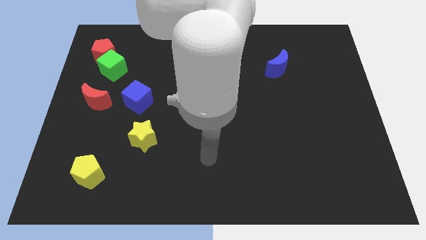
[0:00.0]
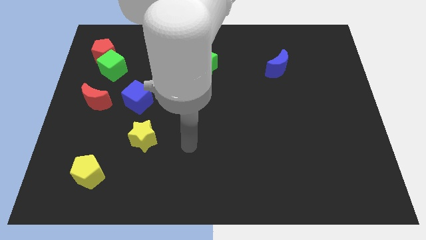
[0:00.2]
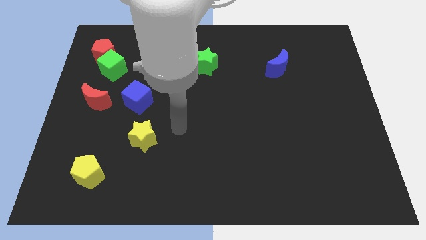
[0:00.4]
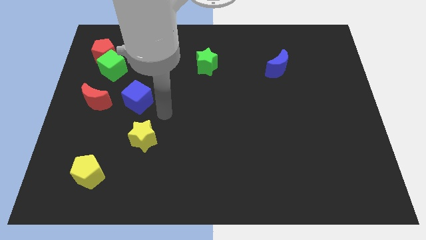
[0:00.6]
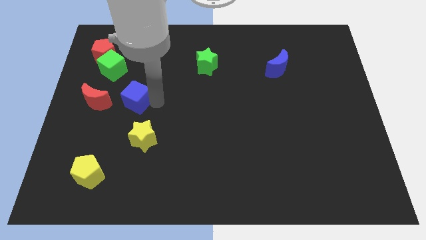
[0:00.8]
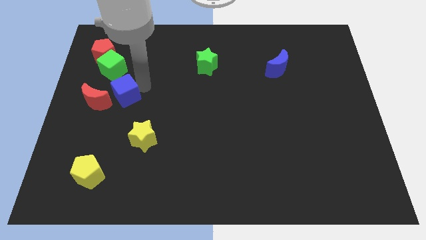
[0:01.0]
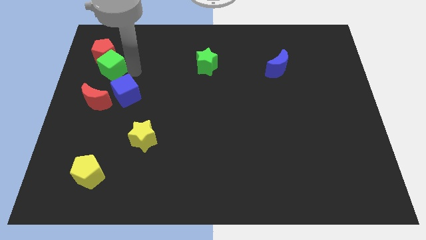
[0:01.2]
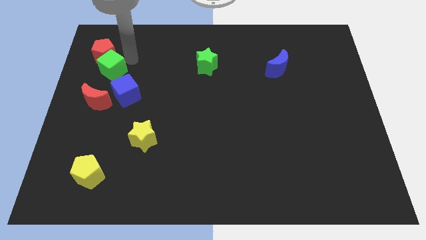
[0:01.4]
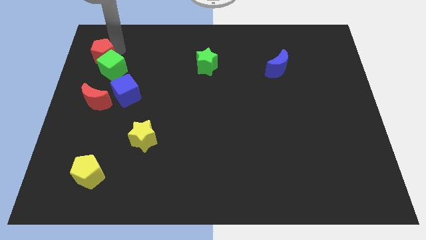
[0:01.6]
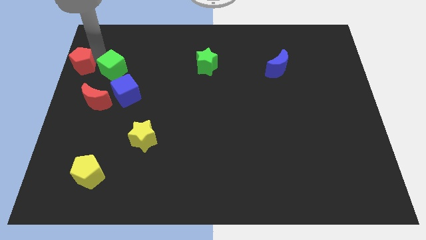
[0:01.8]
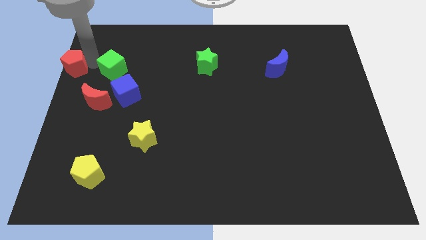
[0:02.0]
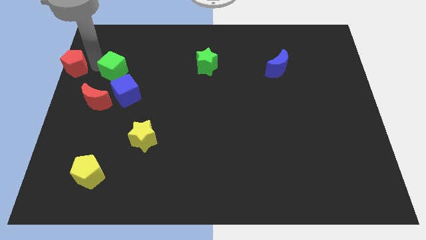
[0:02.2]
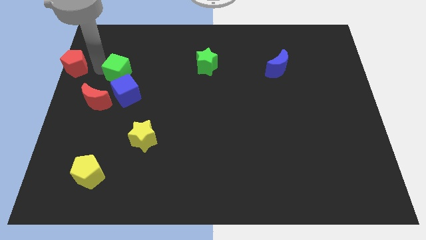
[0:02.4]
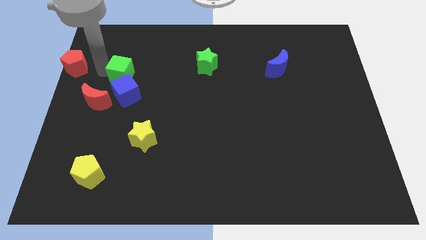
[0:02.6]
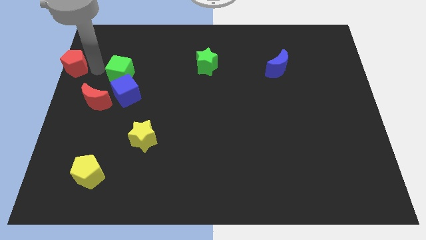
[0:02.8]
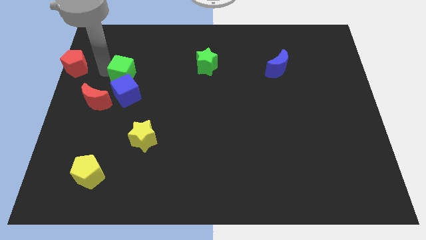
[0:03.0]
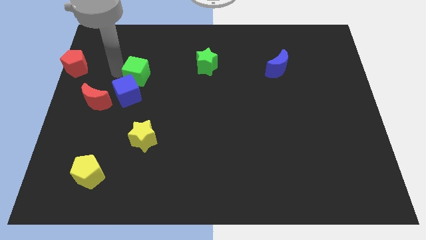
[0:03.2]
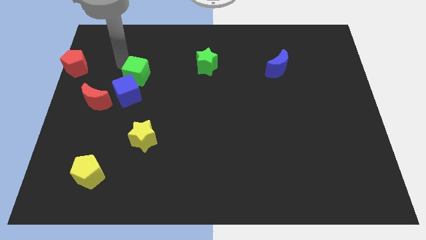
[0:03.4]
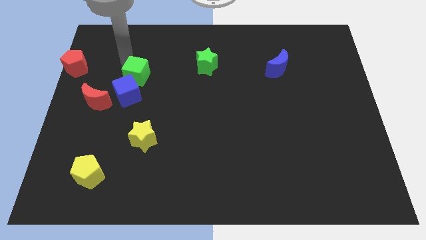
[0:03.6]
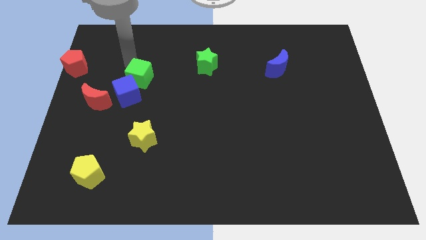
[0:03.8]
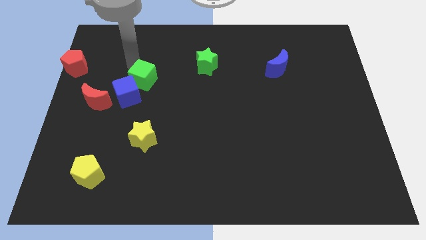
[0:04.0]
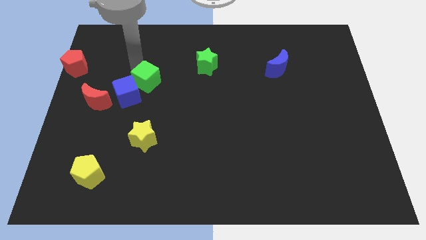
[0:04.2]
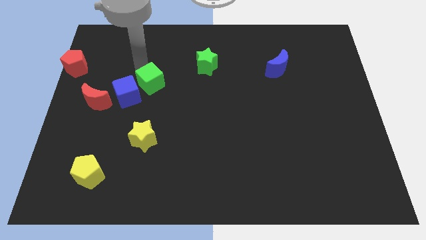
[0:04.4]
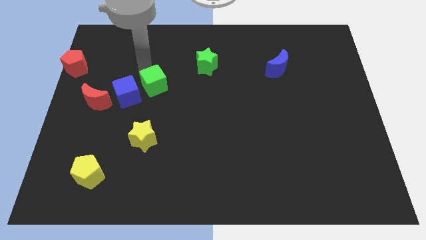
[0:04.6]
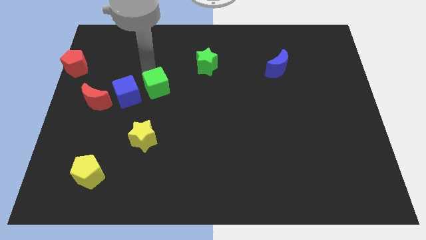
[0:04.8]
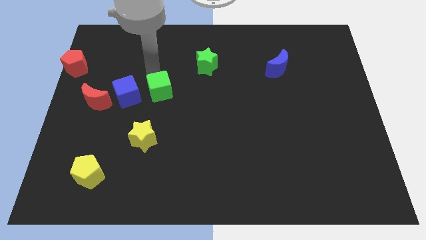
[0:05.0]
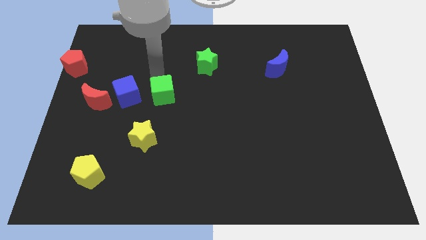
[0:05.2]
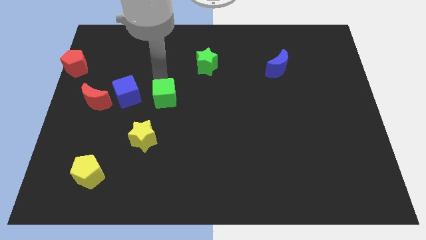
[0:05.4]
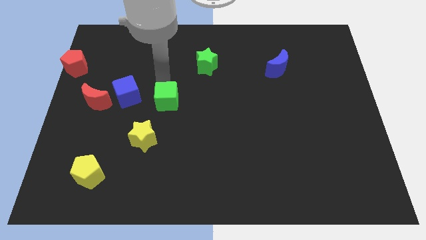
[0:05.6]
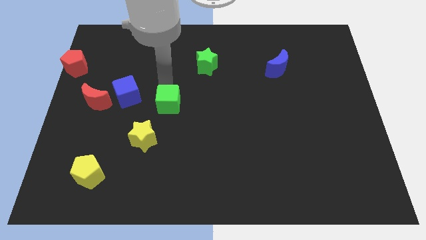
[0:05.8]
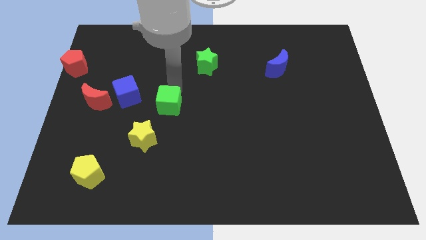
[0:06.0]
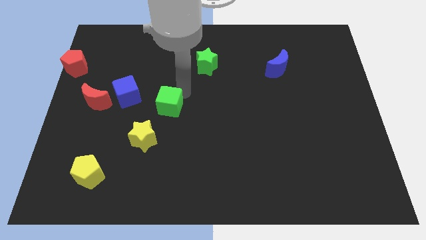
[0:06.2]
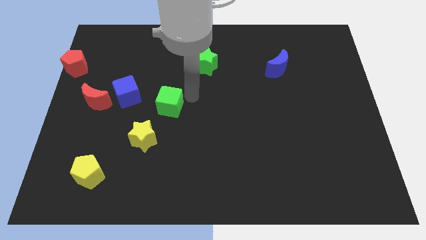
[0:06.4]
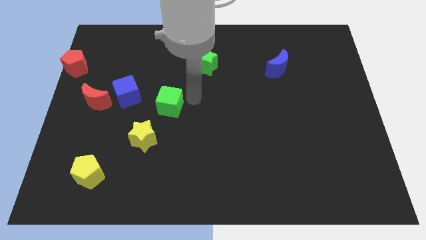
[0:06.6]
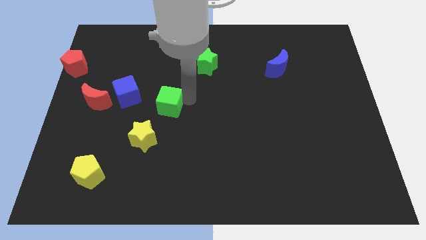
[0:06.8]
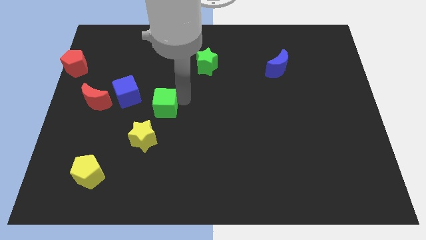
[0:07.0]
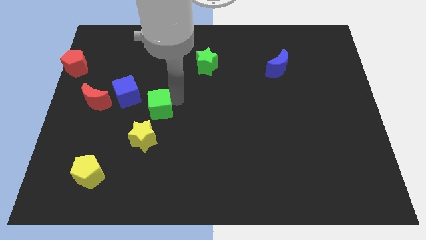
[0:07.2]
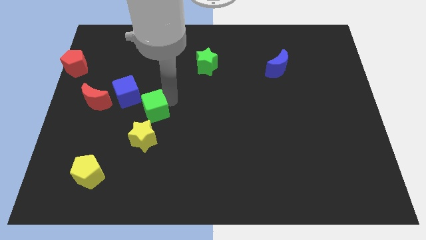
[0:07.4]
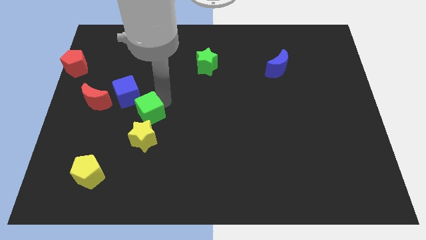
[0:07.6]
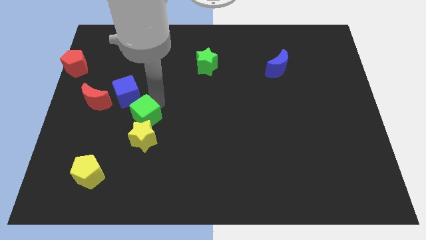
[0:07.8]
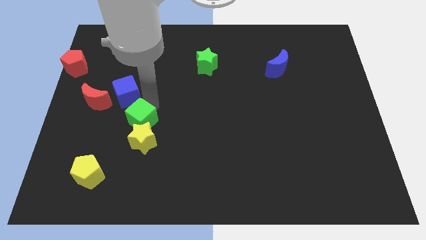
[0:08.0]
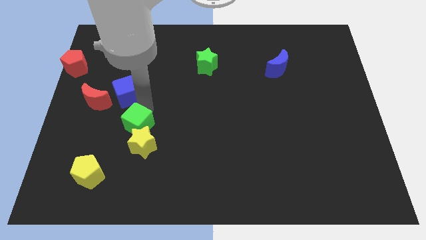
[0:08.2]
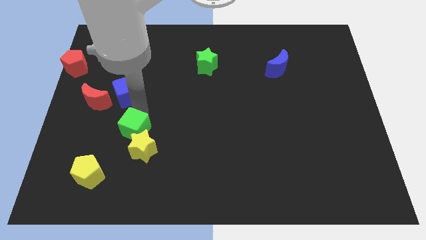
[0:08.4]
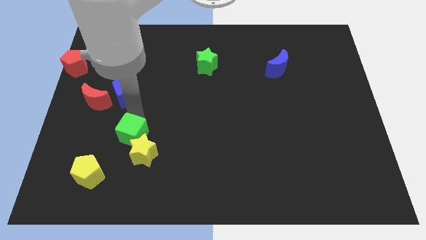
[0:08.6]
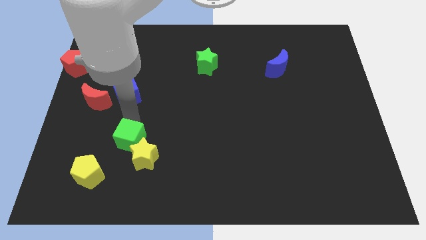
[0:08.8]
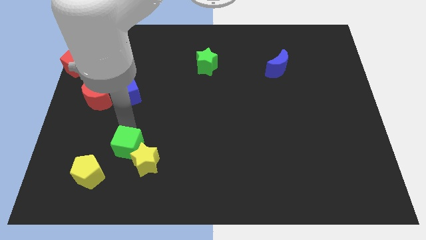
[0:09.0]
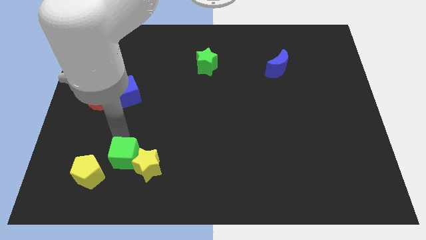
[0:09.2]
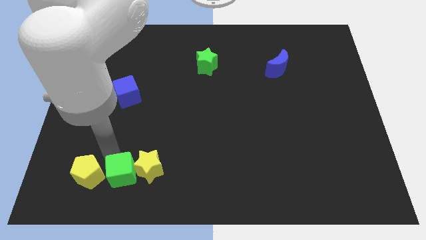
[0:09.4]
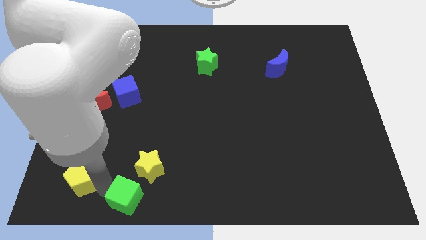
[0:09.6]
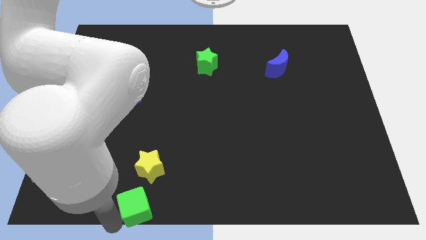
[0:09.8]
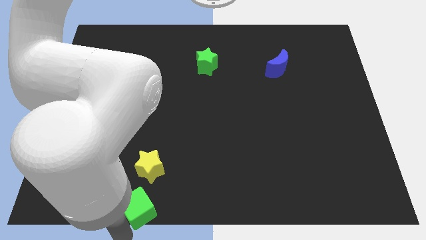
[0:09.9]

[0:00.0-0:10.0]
put the green cube to the bottom side

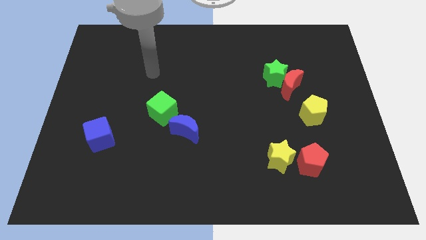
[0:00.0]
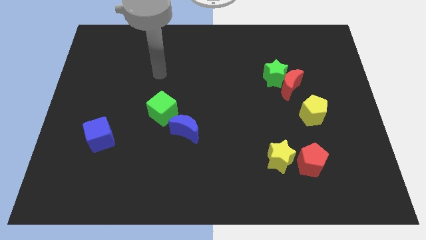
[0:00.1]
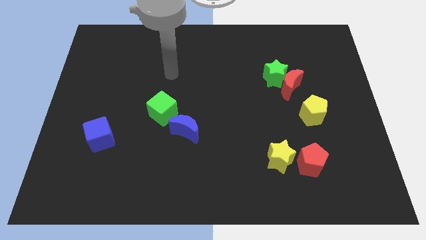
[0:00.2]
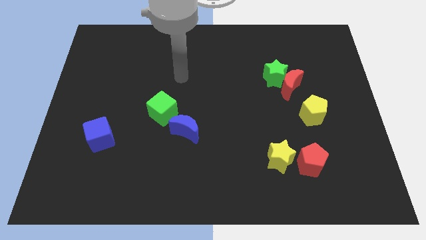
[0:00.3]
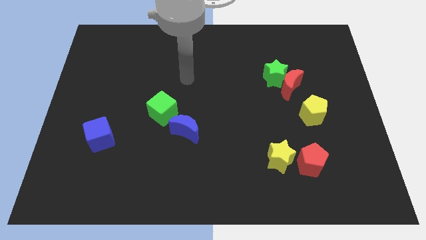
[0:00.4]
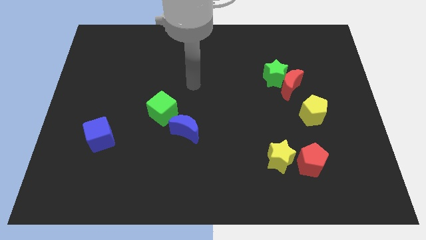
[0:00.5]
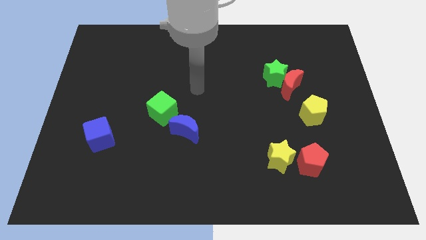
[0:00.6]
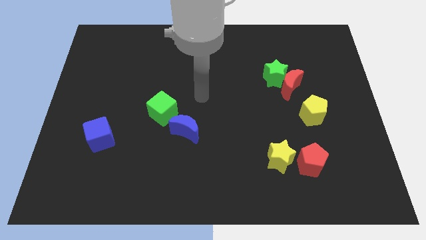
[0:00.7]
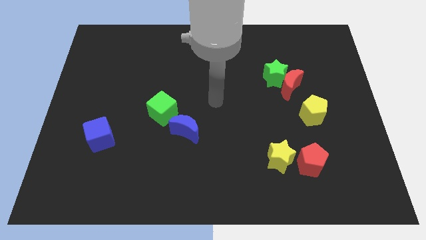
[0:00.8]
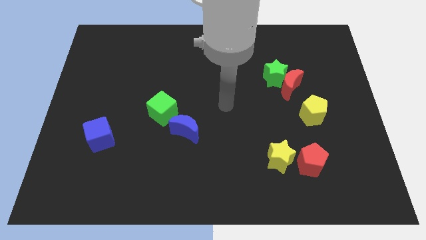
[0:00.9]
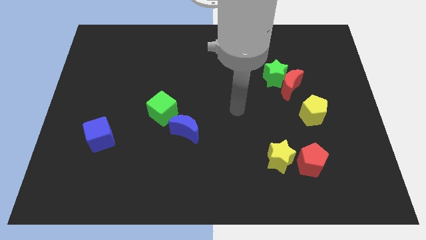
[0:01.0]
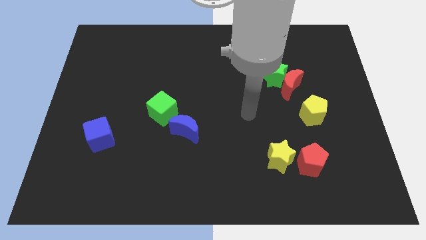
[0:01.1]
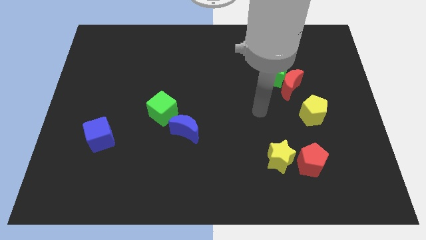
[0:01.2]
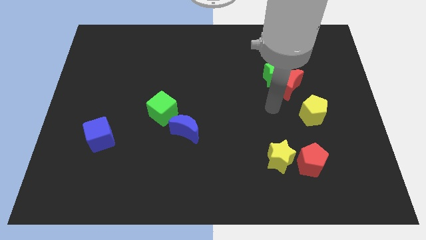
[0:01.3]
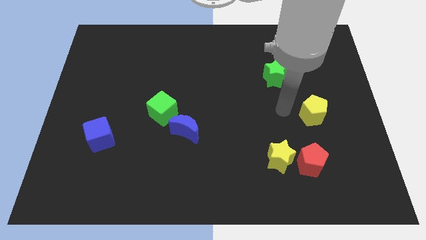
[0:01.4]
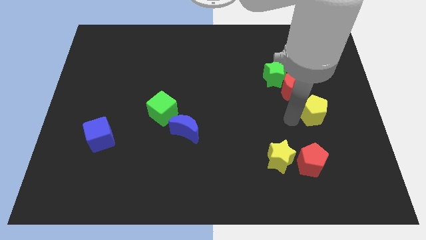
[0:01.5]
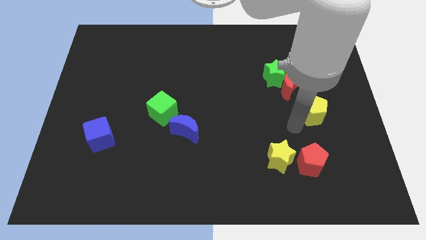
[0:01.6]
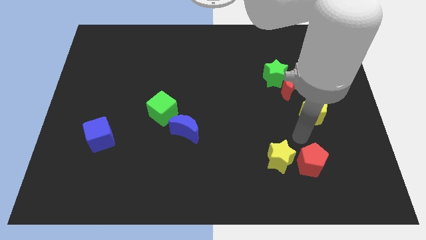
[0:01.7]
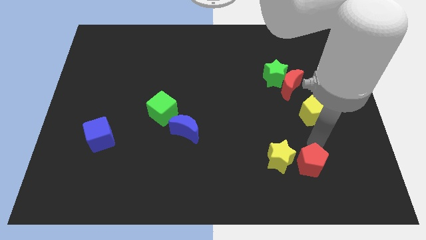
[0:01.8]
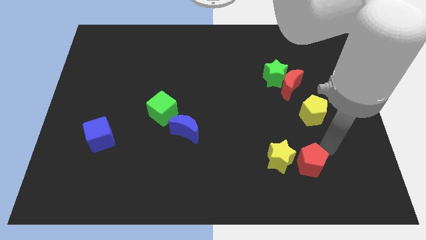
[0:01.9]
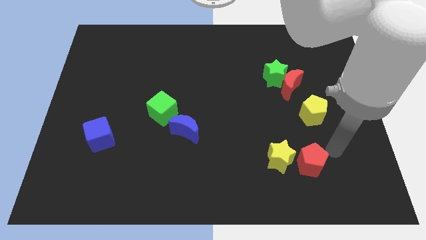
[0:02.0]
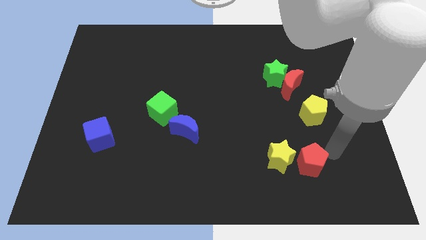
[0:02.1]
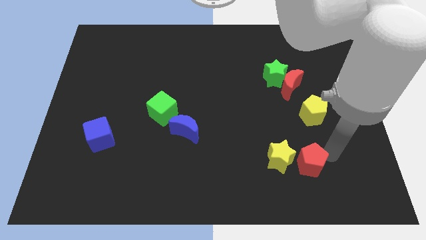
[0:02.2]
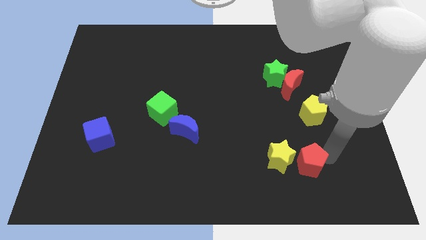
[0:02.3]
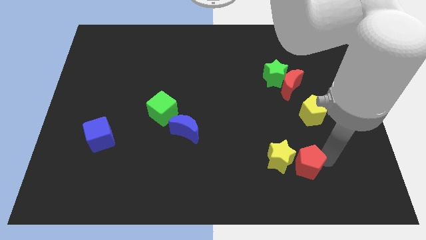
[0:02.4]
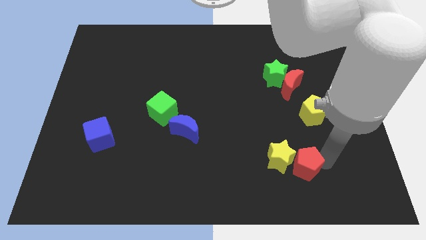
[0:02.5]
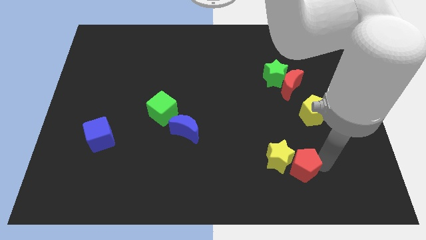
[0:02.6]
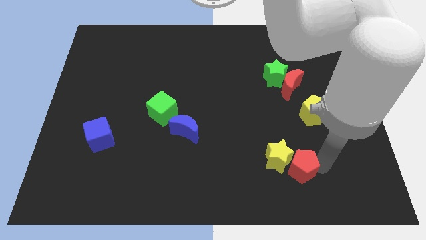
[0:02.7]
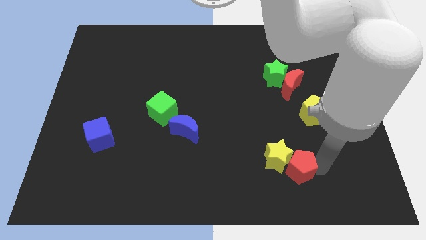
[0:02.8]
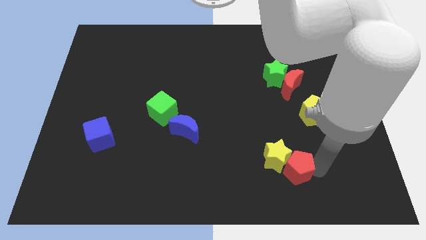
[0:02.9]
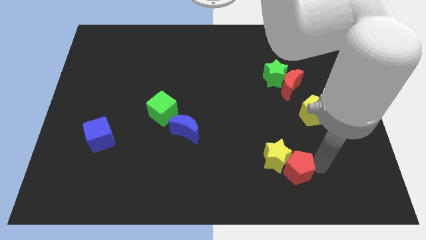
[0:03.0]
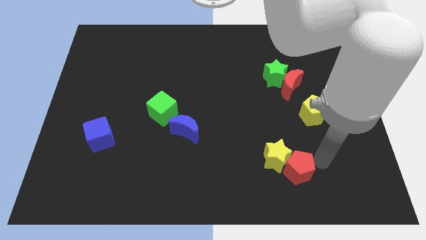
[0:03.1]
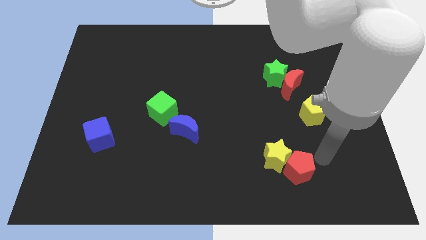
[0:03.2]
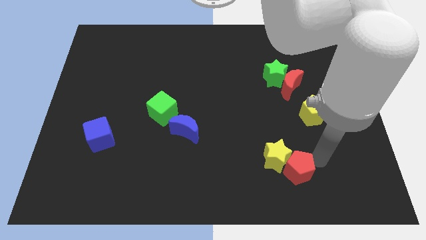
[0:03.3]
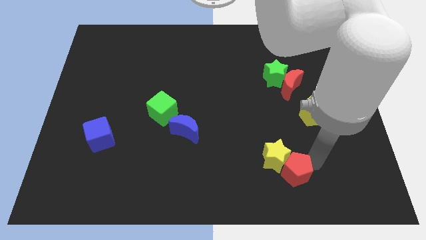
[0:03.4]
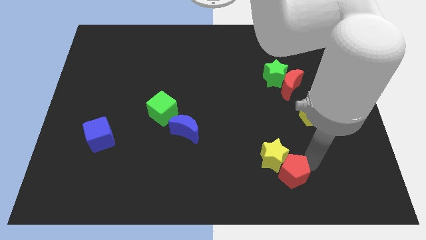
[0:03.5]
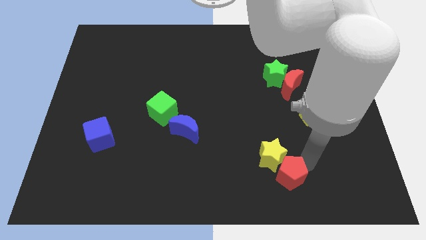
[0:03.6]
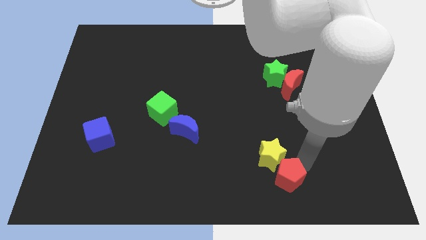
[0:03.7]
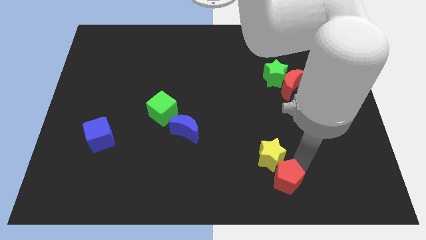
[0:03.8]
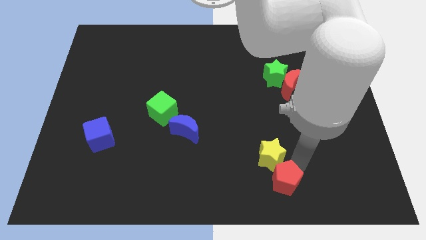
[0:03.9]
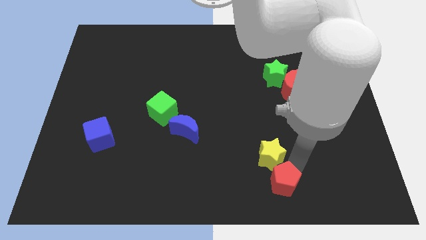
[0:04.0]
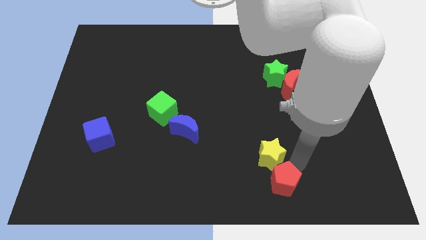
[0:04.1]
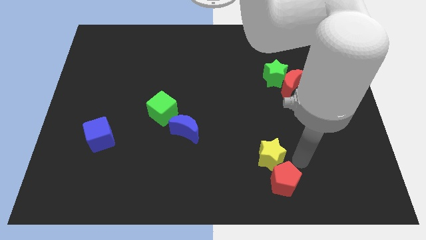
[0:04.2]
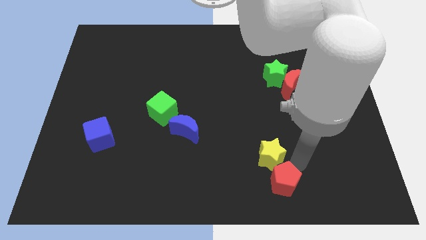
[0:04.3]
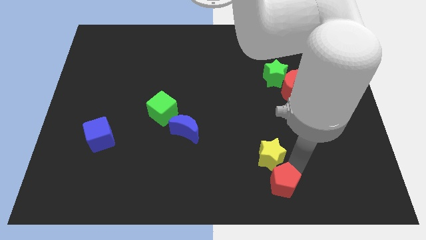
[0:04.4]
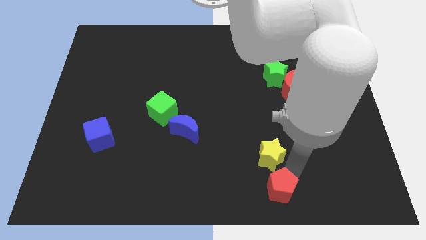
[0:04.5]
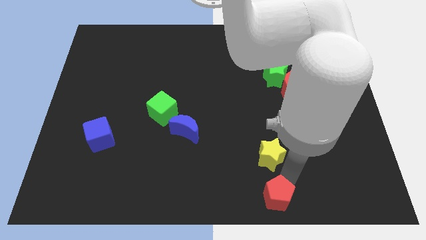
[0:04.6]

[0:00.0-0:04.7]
put the red pentagon to the bottom
